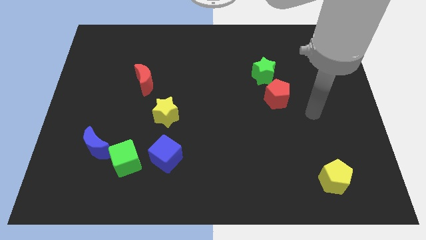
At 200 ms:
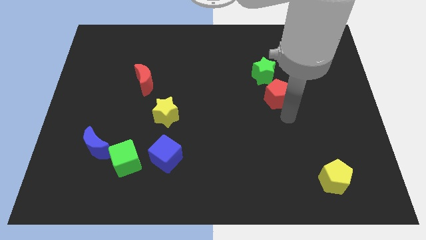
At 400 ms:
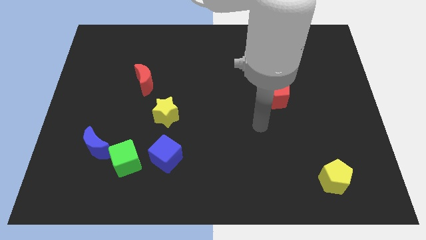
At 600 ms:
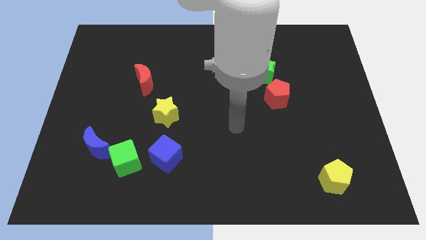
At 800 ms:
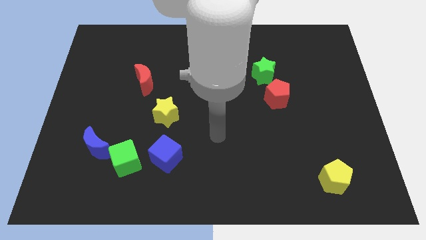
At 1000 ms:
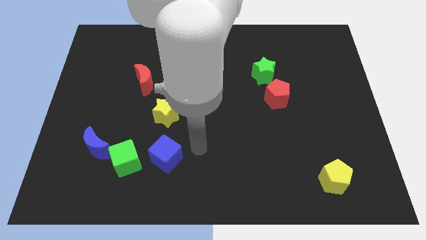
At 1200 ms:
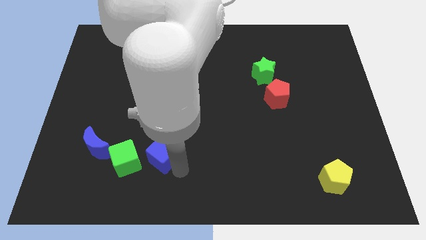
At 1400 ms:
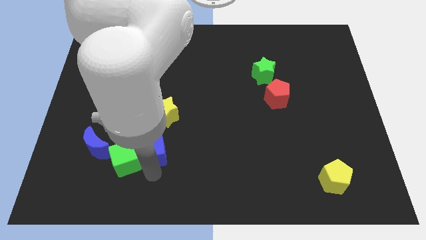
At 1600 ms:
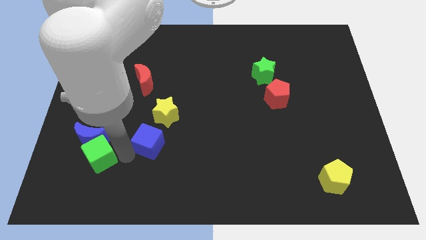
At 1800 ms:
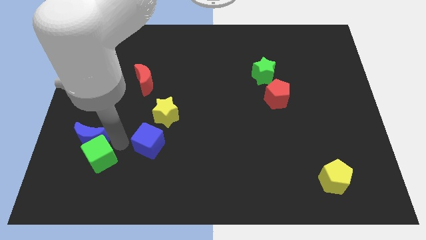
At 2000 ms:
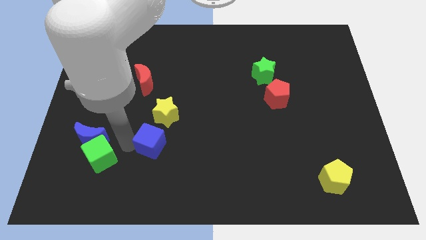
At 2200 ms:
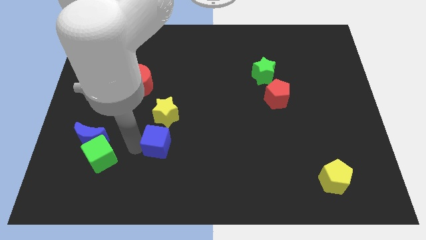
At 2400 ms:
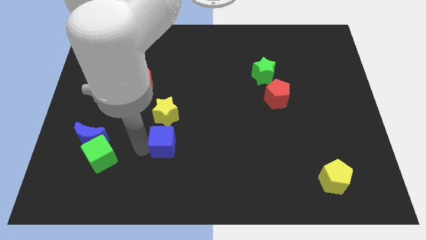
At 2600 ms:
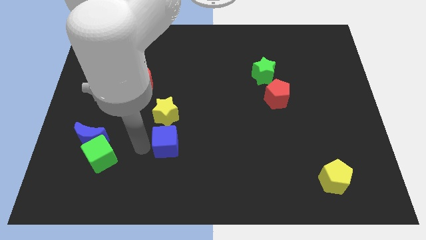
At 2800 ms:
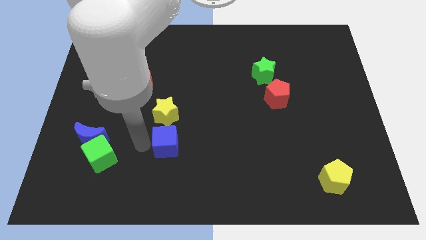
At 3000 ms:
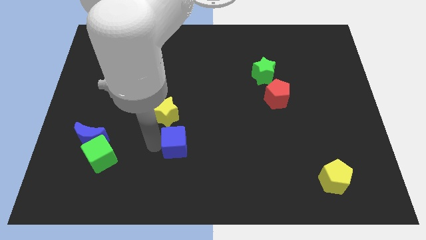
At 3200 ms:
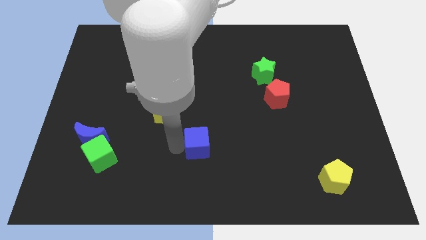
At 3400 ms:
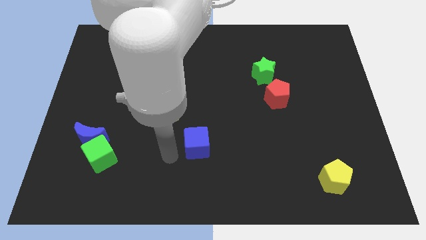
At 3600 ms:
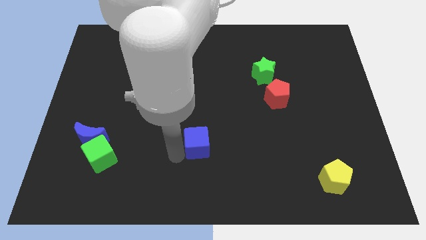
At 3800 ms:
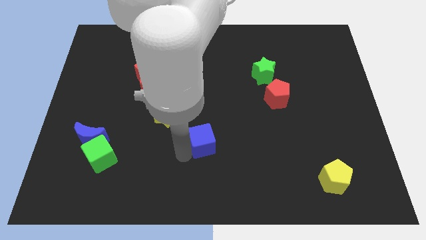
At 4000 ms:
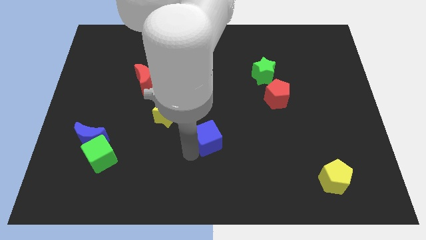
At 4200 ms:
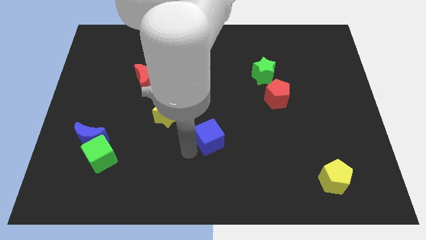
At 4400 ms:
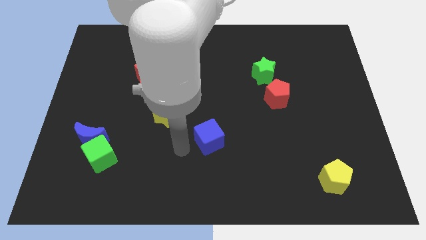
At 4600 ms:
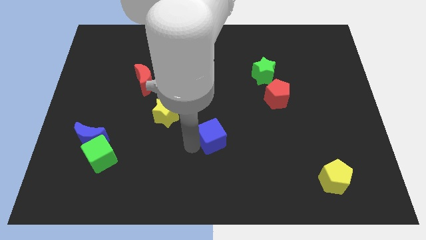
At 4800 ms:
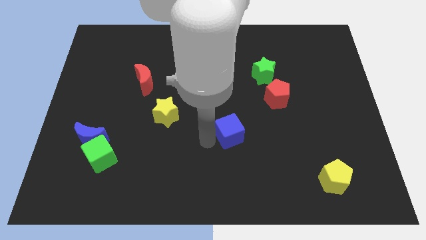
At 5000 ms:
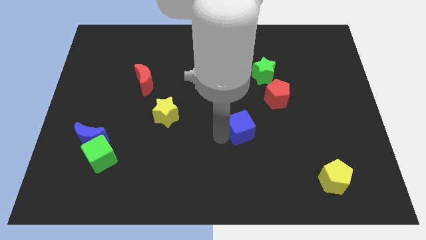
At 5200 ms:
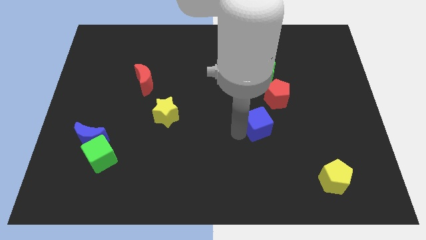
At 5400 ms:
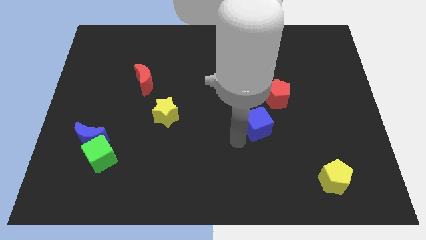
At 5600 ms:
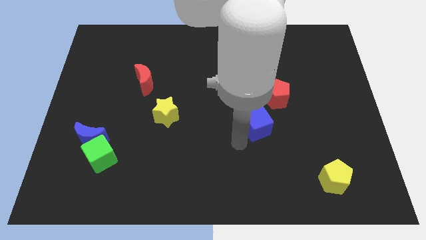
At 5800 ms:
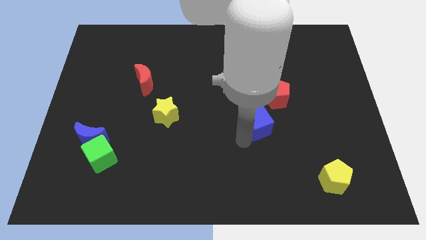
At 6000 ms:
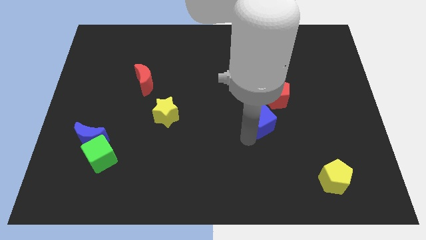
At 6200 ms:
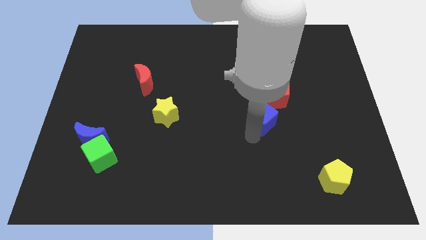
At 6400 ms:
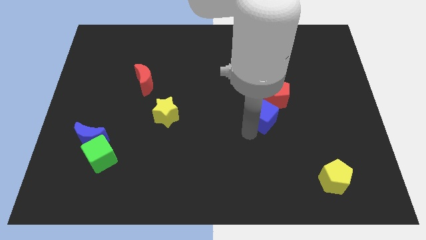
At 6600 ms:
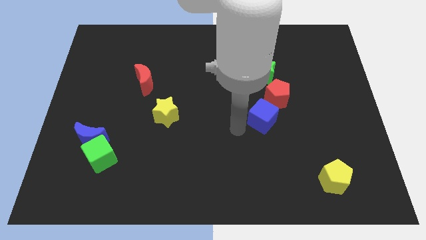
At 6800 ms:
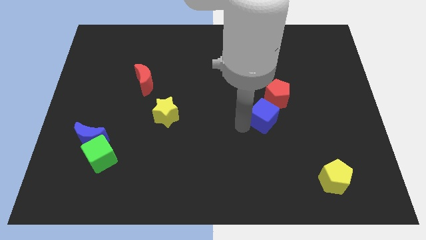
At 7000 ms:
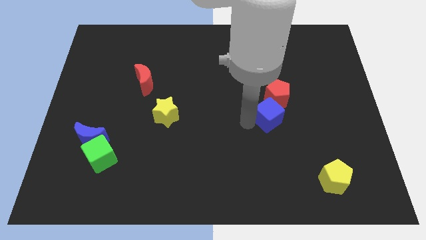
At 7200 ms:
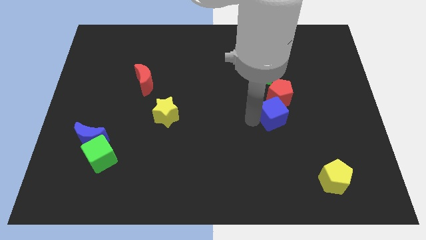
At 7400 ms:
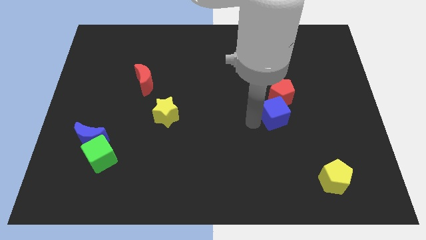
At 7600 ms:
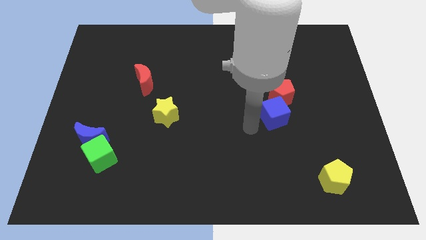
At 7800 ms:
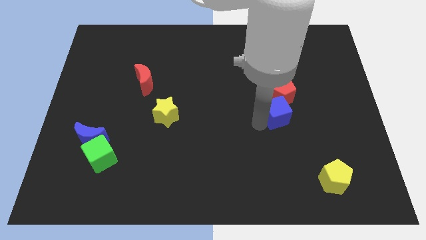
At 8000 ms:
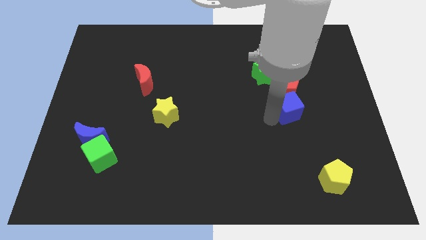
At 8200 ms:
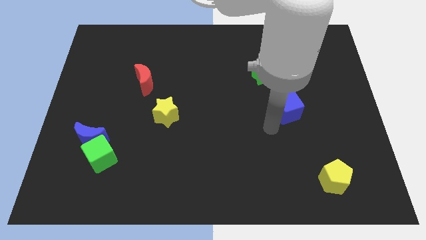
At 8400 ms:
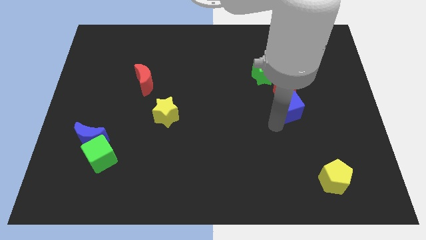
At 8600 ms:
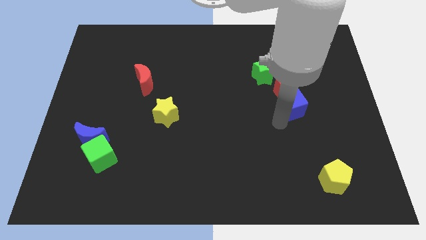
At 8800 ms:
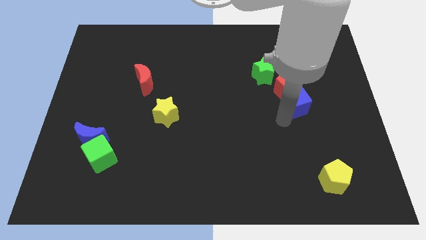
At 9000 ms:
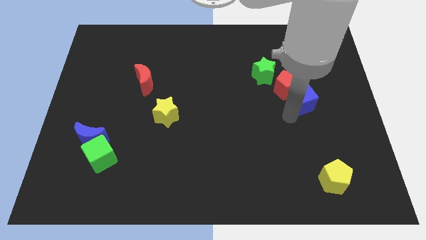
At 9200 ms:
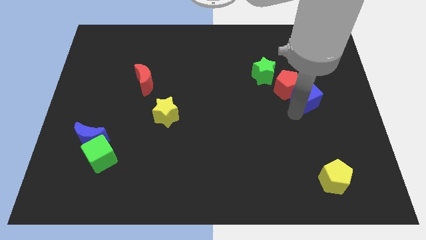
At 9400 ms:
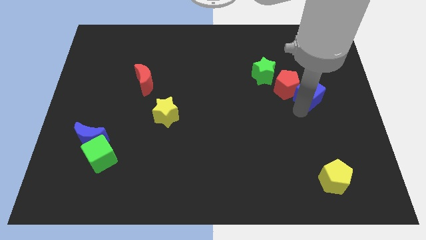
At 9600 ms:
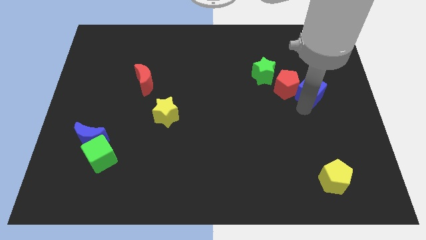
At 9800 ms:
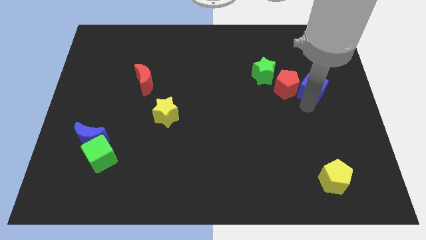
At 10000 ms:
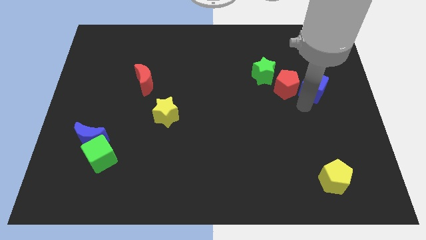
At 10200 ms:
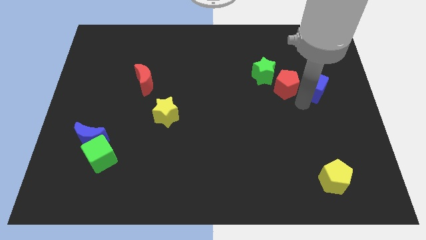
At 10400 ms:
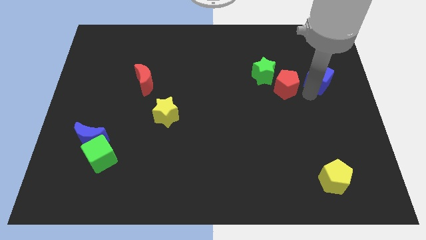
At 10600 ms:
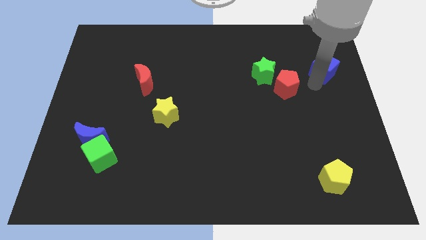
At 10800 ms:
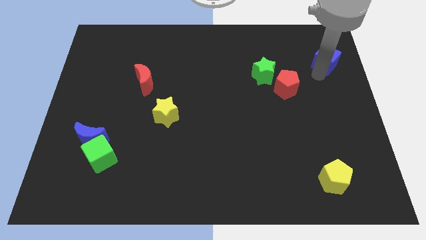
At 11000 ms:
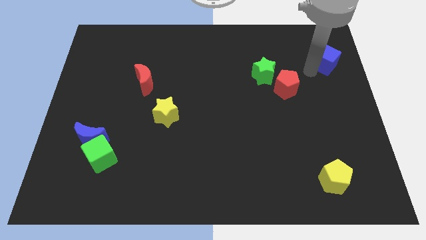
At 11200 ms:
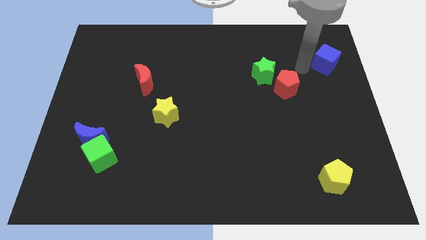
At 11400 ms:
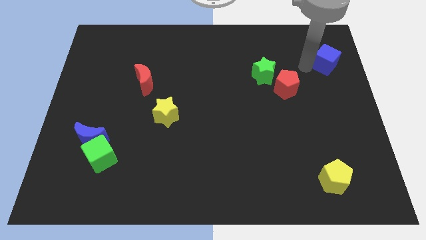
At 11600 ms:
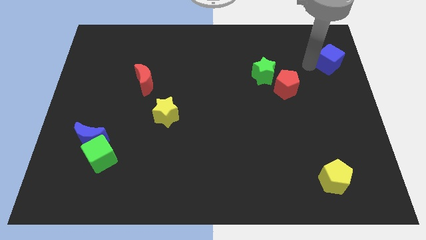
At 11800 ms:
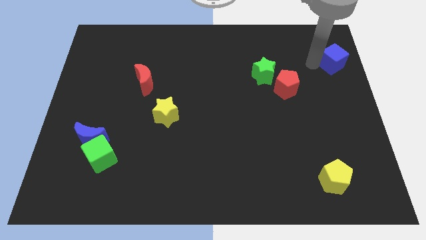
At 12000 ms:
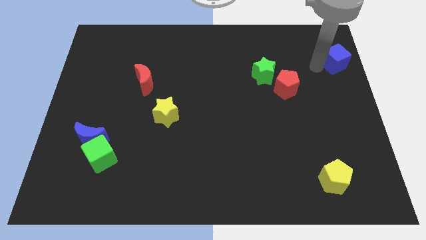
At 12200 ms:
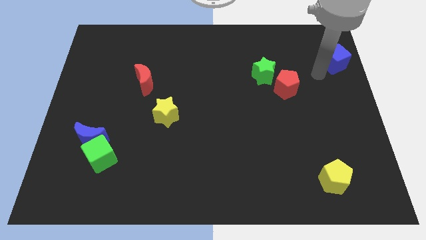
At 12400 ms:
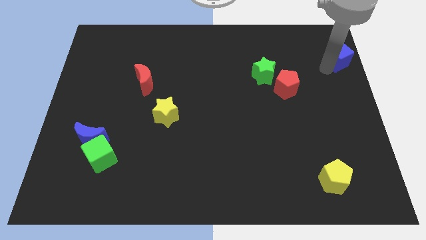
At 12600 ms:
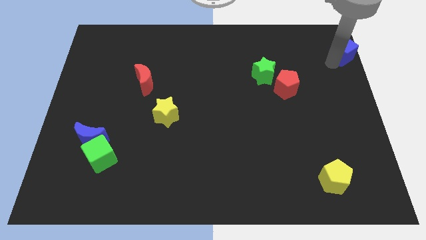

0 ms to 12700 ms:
put the blue cube to the top right corner

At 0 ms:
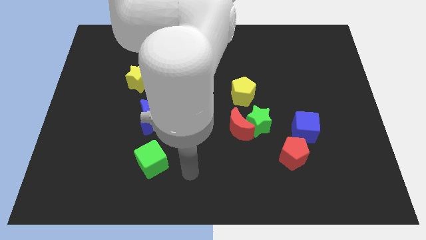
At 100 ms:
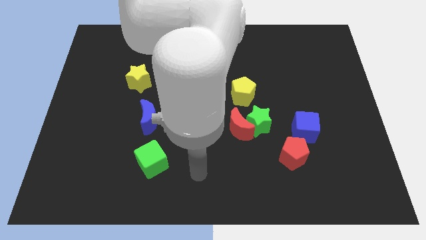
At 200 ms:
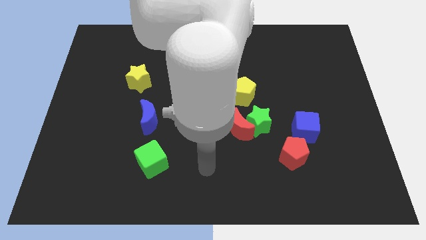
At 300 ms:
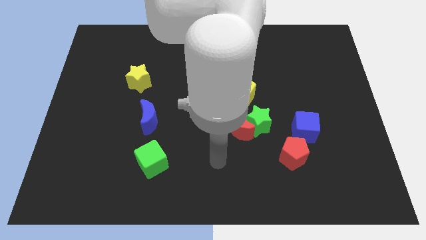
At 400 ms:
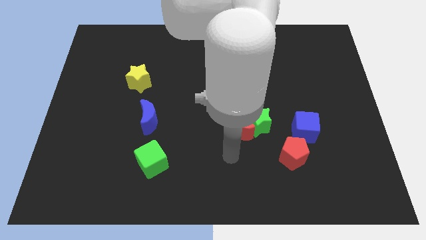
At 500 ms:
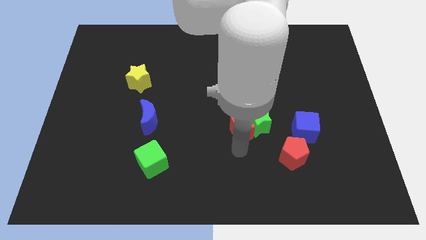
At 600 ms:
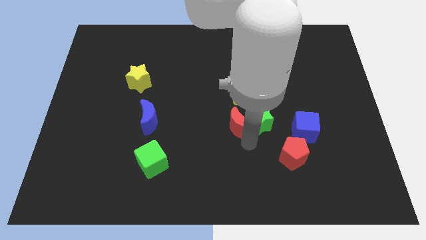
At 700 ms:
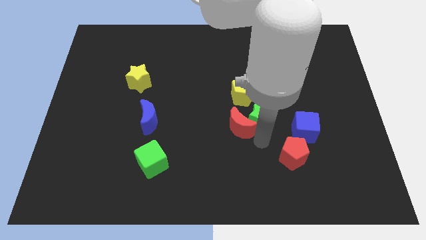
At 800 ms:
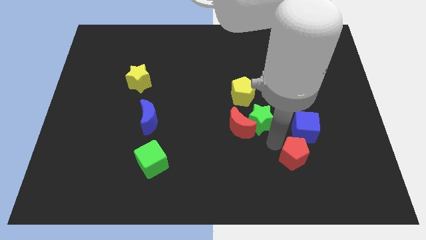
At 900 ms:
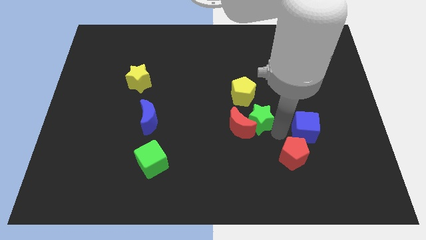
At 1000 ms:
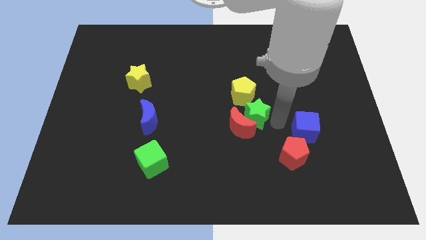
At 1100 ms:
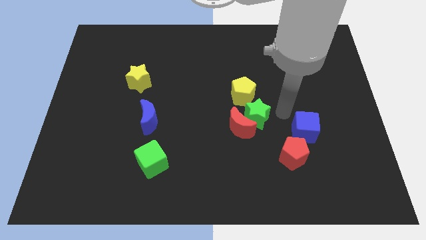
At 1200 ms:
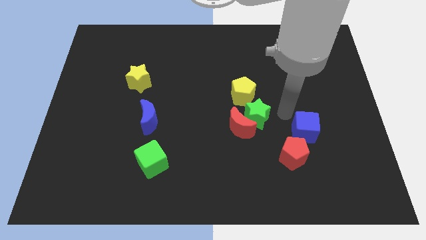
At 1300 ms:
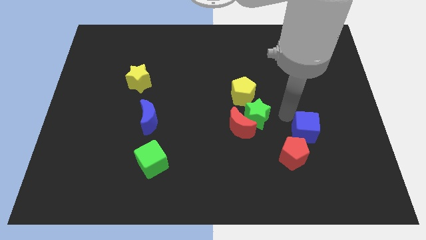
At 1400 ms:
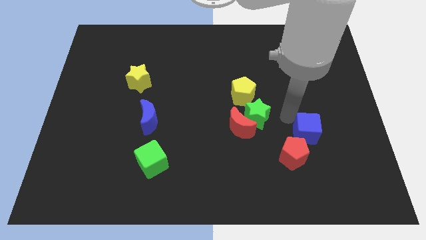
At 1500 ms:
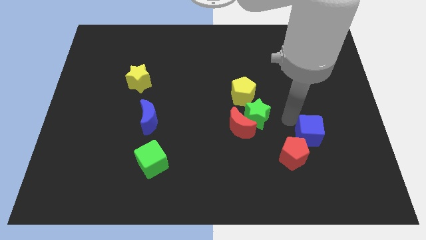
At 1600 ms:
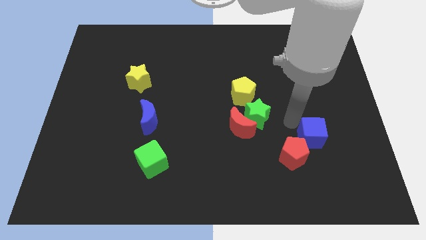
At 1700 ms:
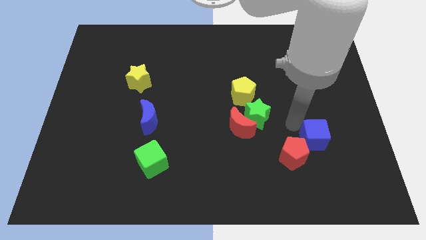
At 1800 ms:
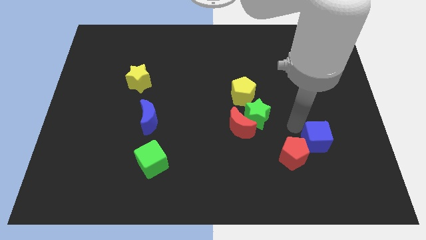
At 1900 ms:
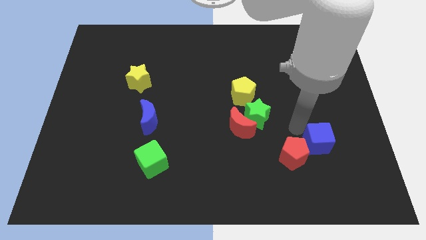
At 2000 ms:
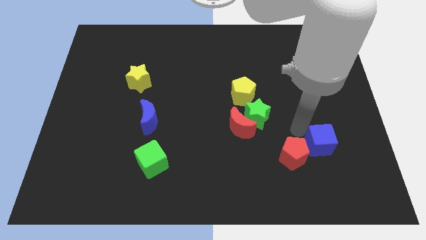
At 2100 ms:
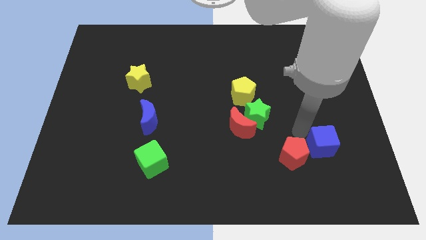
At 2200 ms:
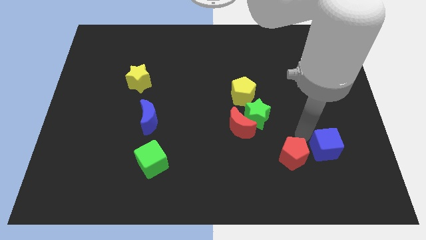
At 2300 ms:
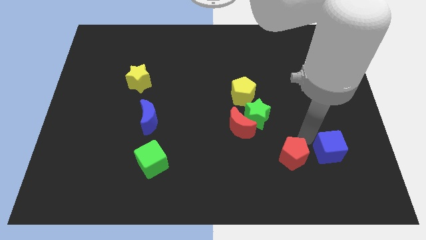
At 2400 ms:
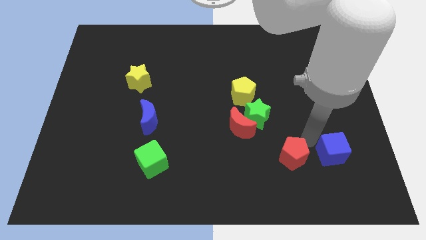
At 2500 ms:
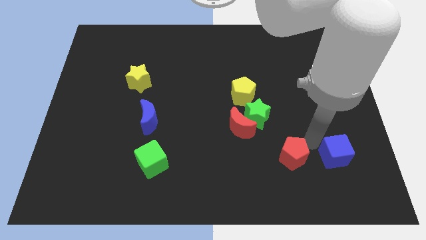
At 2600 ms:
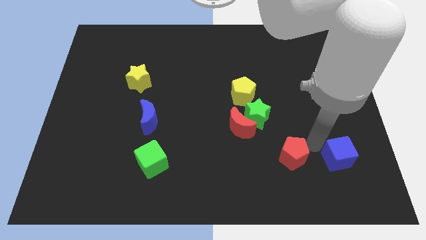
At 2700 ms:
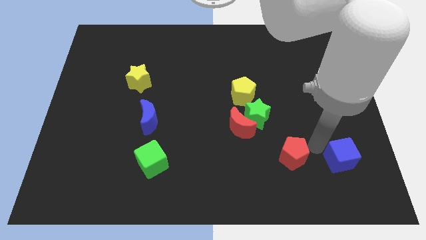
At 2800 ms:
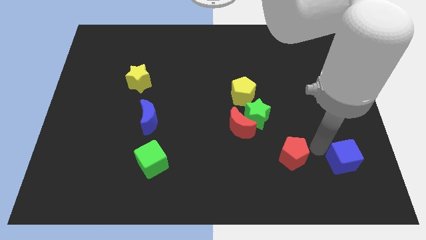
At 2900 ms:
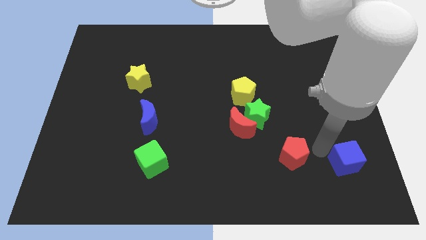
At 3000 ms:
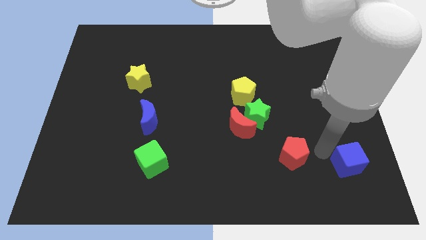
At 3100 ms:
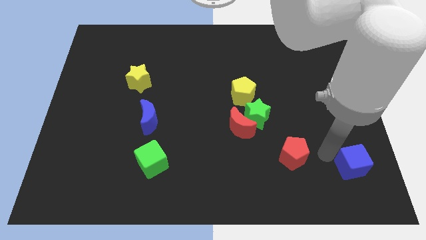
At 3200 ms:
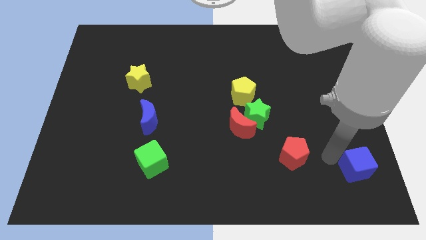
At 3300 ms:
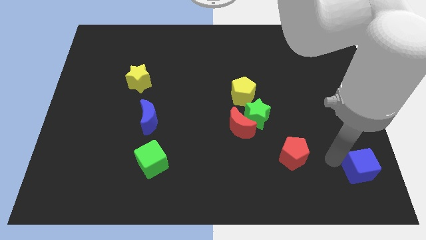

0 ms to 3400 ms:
push the blue cube to the bottom right corner
